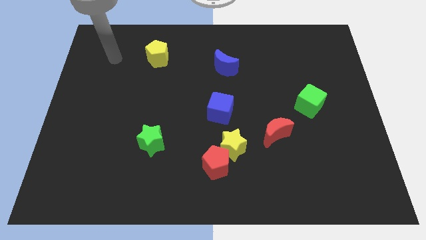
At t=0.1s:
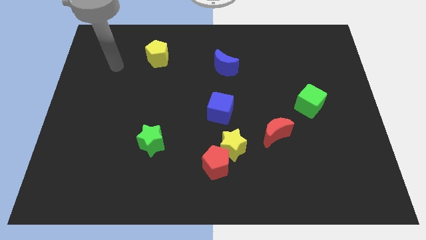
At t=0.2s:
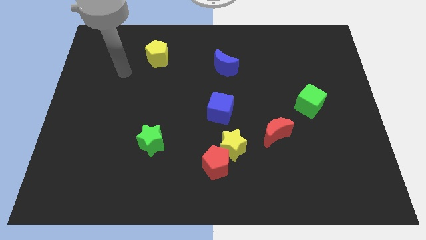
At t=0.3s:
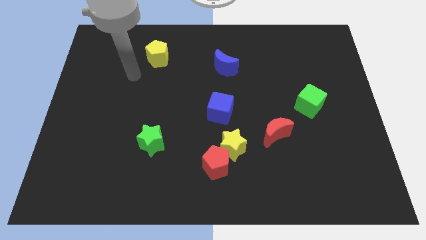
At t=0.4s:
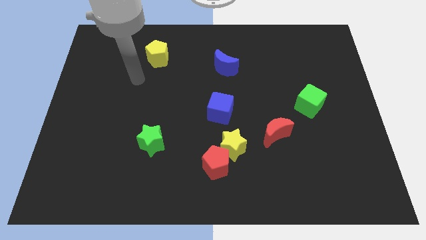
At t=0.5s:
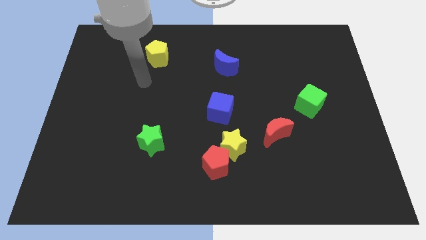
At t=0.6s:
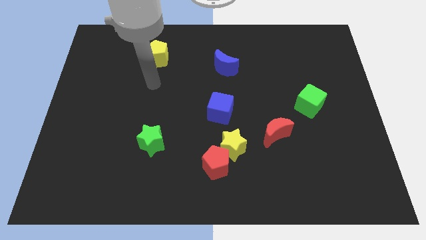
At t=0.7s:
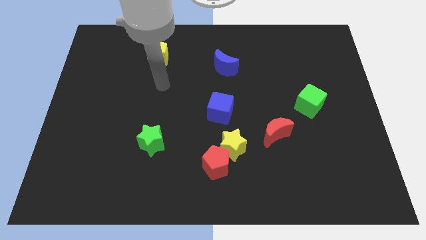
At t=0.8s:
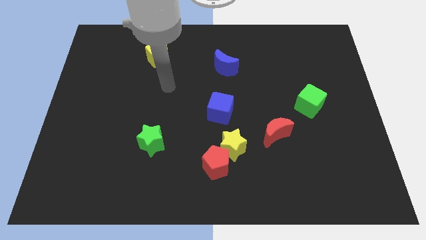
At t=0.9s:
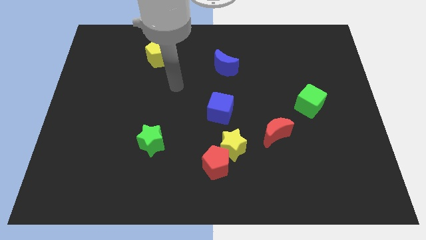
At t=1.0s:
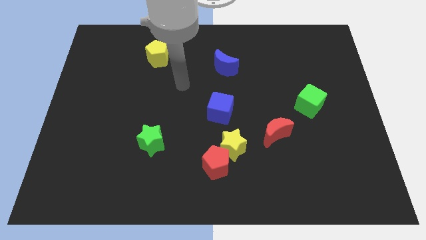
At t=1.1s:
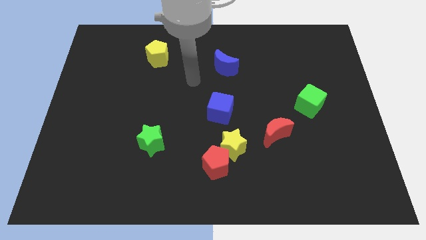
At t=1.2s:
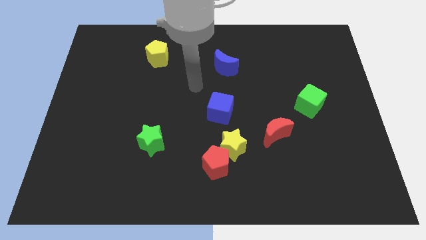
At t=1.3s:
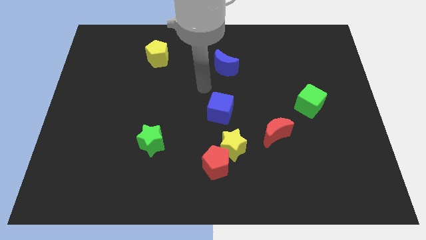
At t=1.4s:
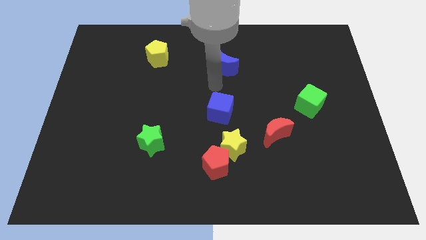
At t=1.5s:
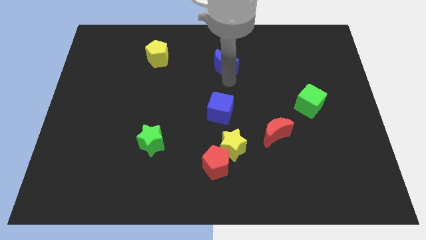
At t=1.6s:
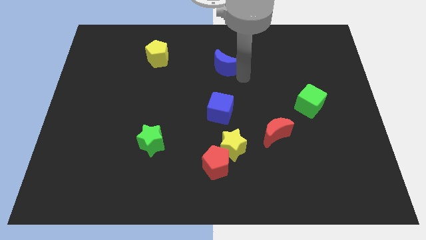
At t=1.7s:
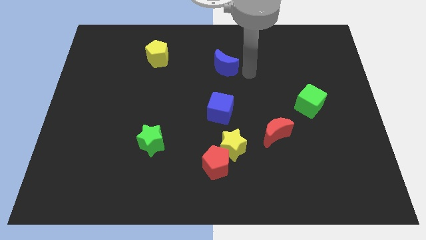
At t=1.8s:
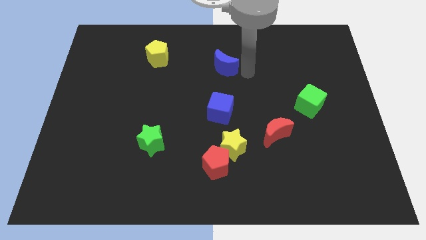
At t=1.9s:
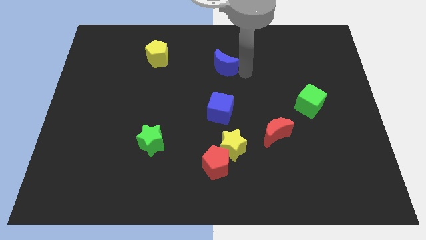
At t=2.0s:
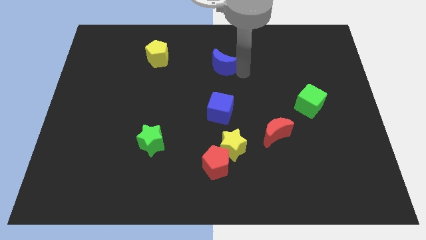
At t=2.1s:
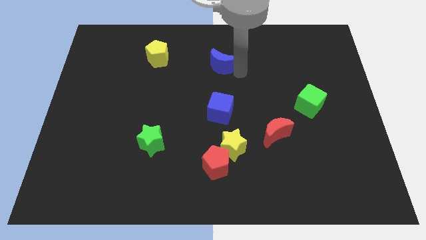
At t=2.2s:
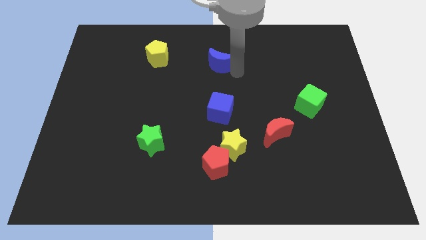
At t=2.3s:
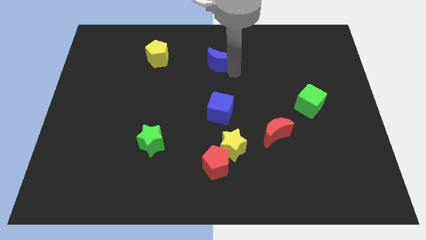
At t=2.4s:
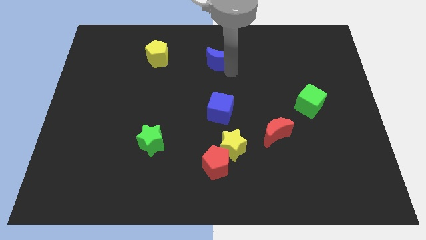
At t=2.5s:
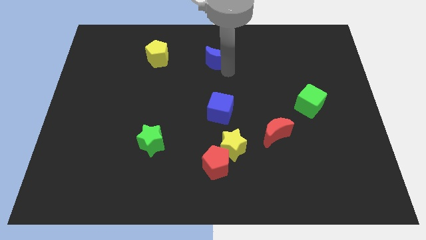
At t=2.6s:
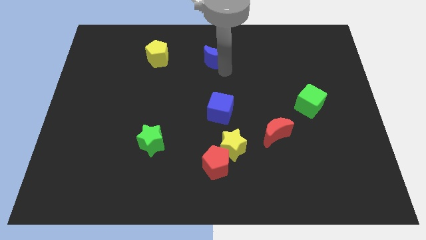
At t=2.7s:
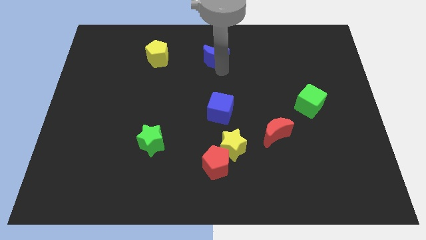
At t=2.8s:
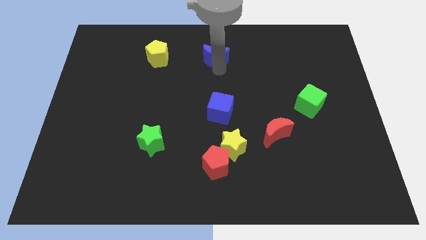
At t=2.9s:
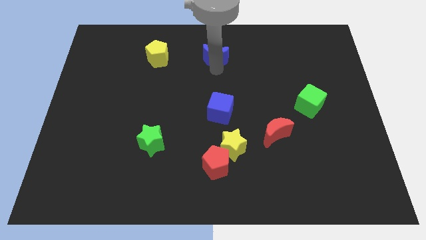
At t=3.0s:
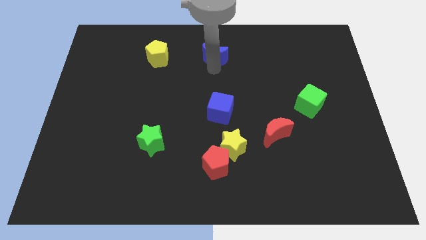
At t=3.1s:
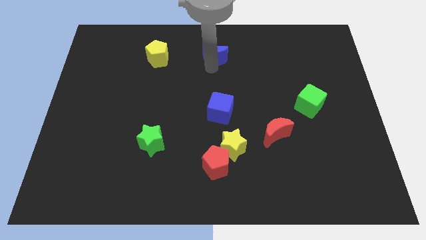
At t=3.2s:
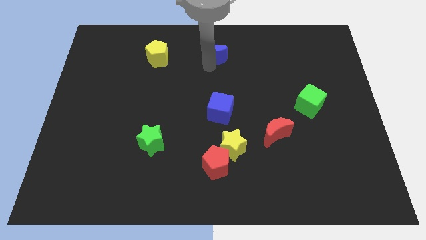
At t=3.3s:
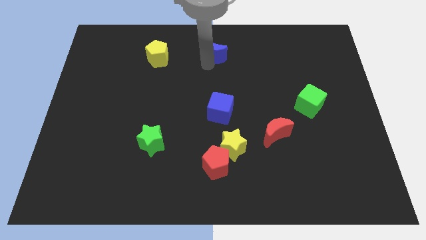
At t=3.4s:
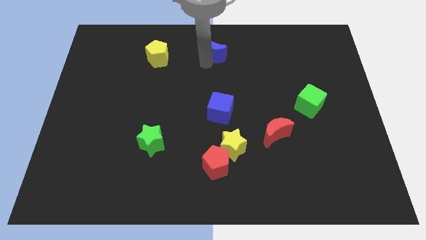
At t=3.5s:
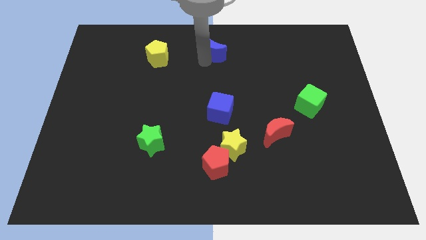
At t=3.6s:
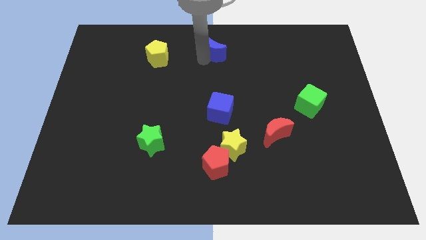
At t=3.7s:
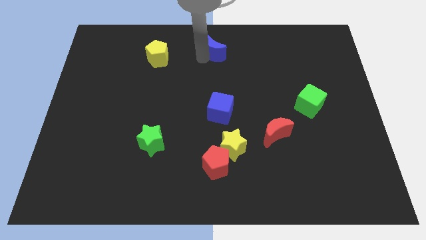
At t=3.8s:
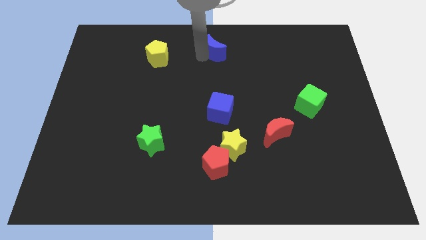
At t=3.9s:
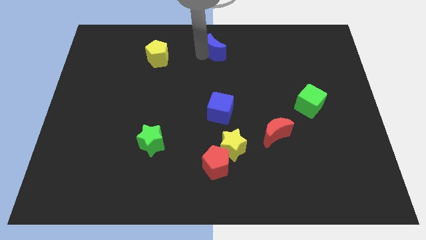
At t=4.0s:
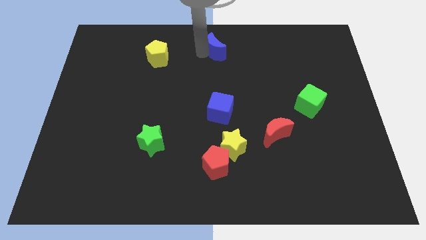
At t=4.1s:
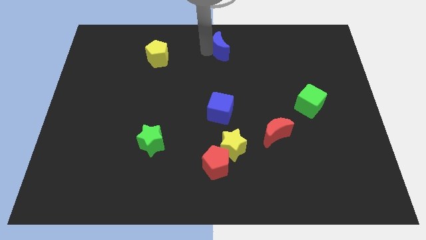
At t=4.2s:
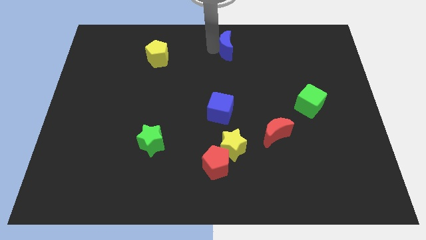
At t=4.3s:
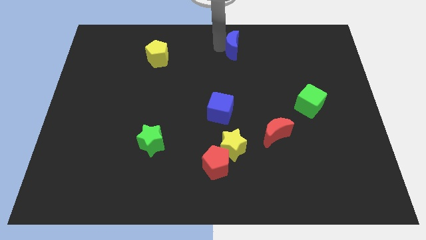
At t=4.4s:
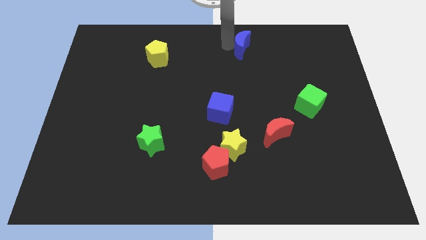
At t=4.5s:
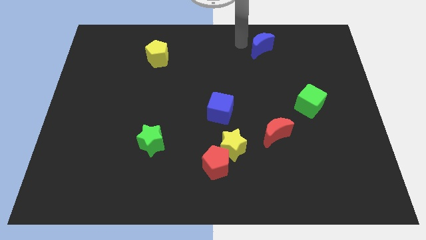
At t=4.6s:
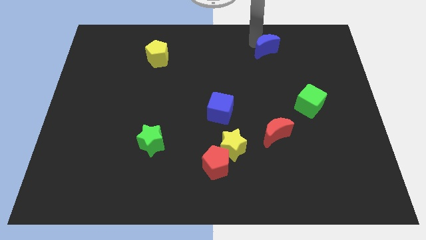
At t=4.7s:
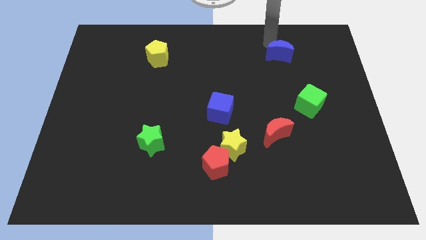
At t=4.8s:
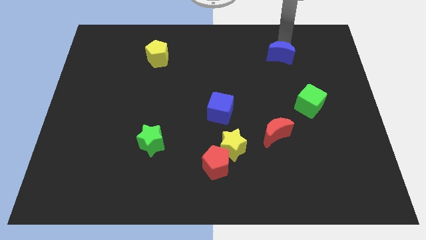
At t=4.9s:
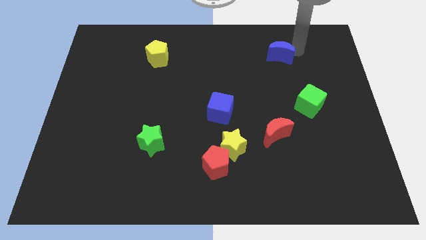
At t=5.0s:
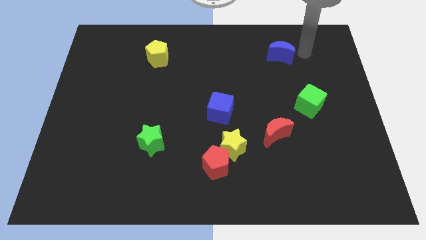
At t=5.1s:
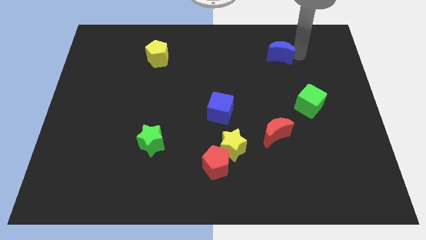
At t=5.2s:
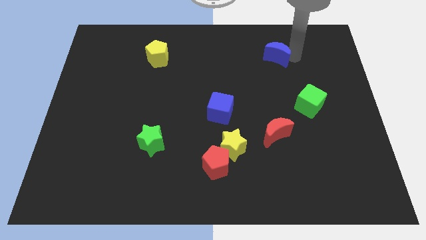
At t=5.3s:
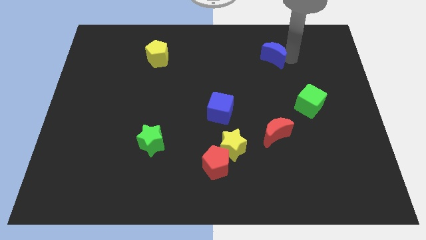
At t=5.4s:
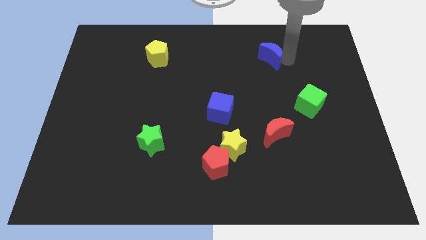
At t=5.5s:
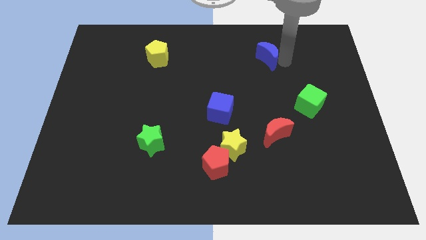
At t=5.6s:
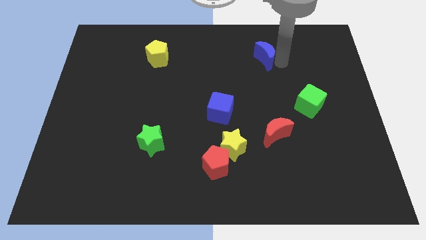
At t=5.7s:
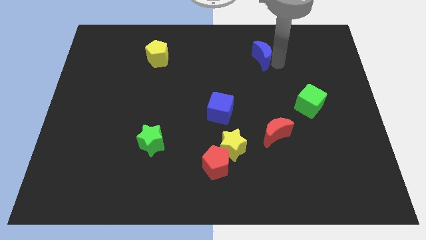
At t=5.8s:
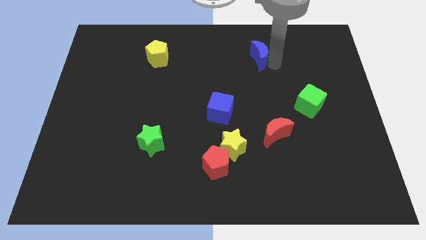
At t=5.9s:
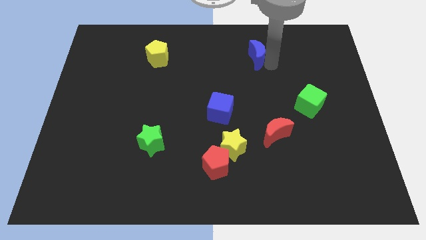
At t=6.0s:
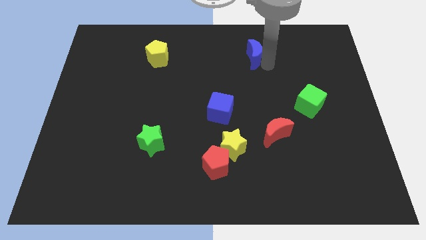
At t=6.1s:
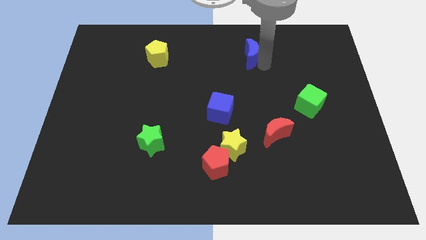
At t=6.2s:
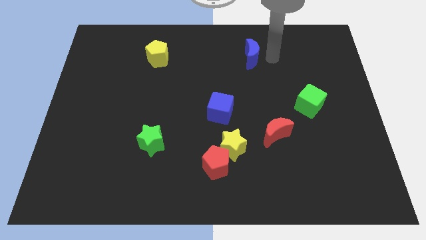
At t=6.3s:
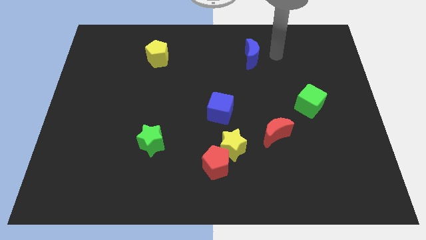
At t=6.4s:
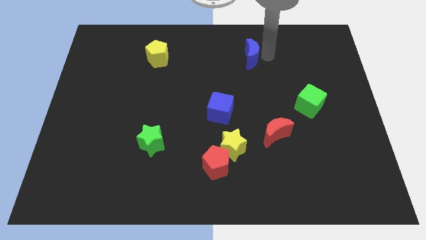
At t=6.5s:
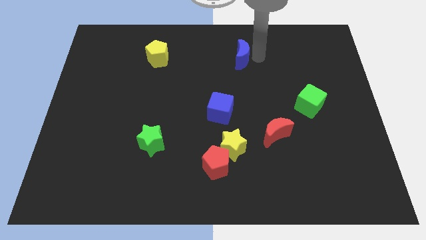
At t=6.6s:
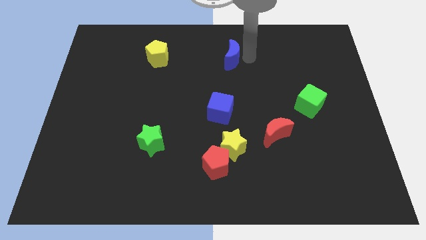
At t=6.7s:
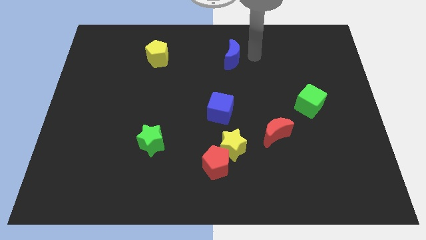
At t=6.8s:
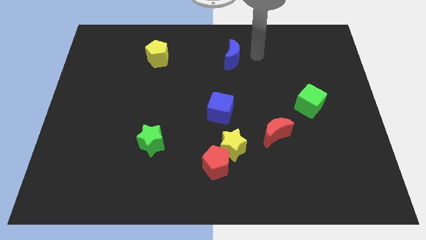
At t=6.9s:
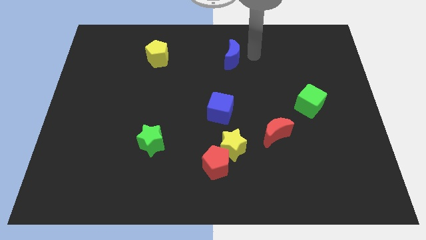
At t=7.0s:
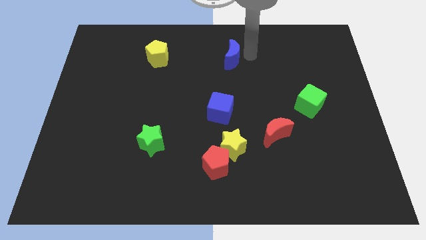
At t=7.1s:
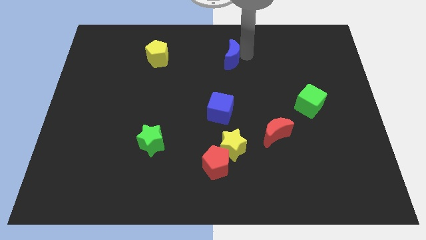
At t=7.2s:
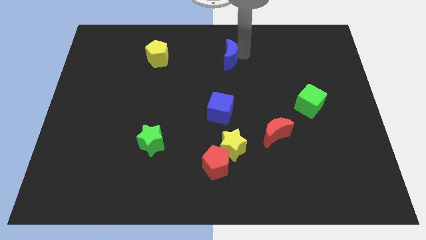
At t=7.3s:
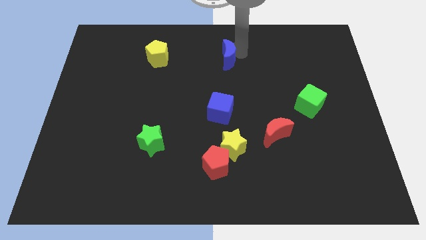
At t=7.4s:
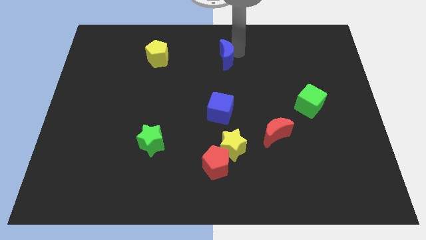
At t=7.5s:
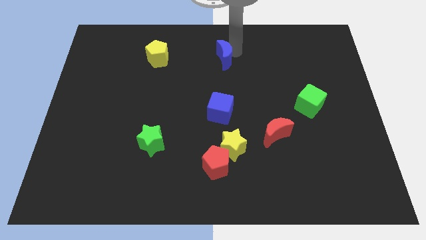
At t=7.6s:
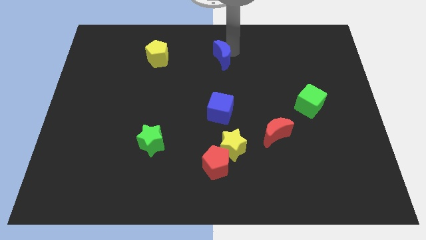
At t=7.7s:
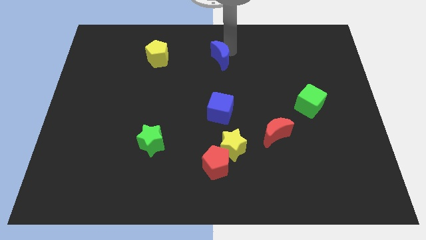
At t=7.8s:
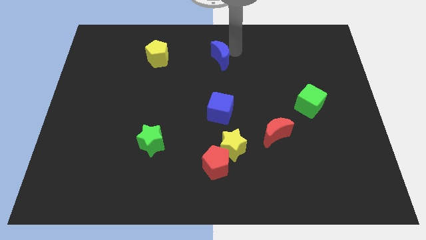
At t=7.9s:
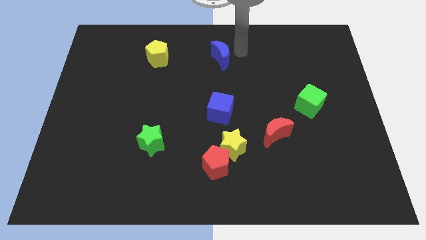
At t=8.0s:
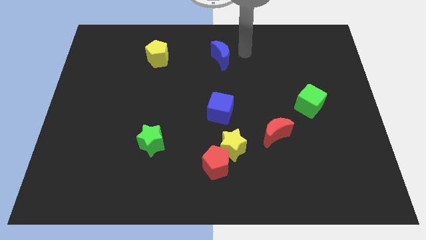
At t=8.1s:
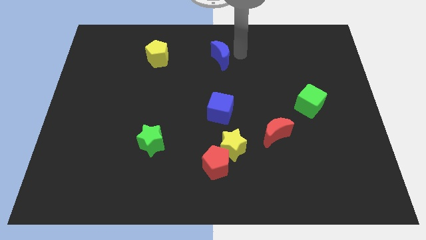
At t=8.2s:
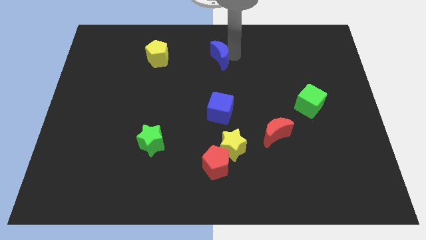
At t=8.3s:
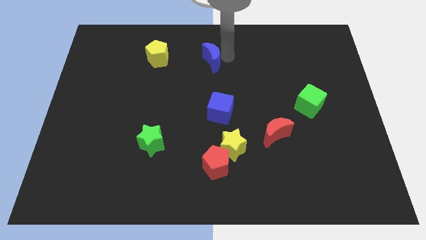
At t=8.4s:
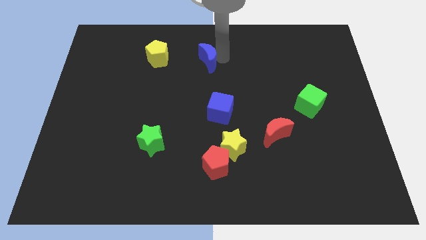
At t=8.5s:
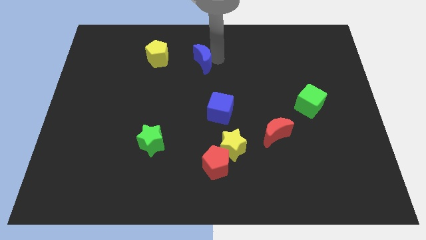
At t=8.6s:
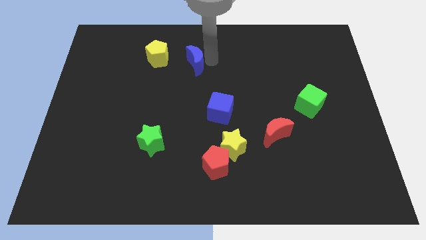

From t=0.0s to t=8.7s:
move the blue moon to the left a little bit
